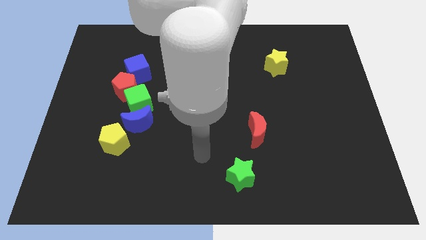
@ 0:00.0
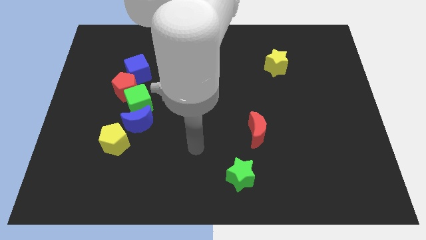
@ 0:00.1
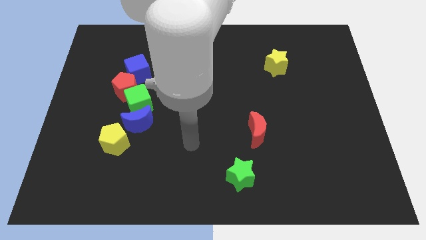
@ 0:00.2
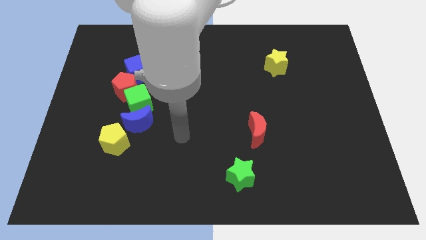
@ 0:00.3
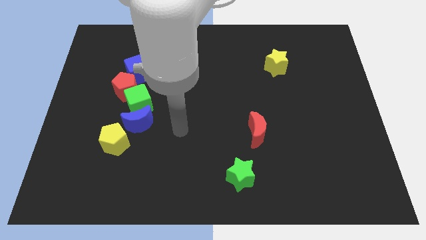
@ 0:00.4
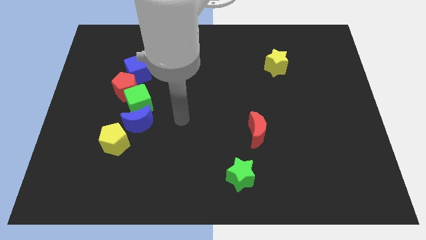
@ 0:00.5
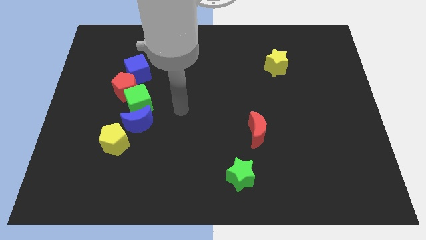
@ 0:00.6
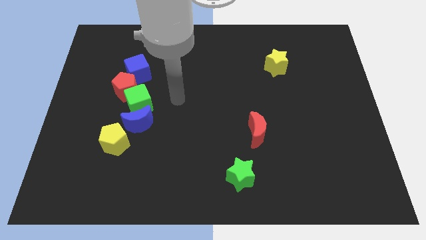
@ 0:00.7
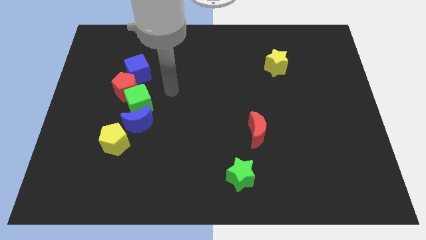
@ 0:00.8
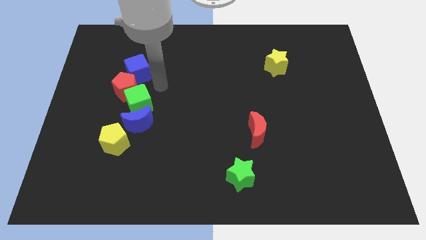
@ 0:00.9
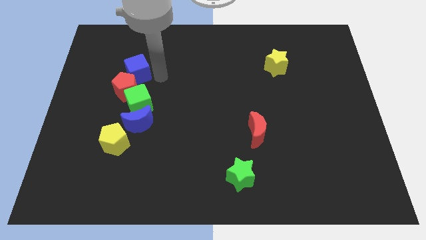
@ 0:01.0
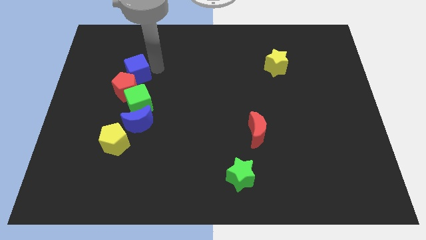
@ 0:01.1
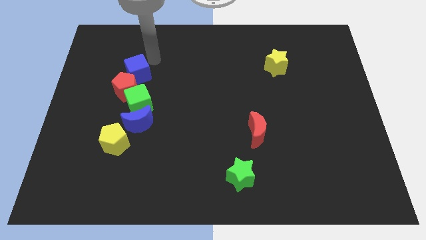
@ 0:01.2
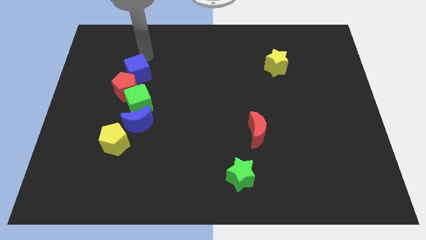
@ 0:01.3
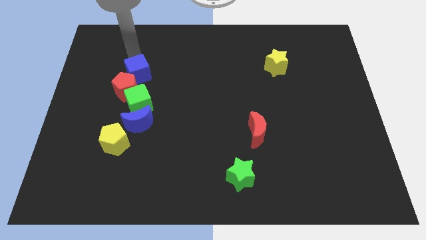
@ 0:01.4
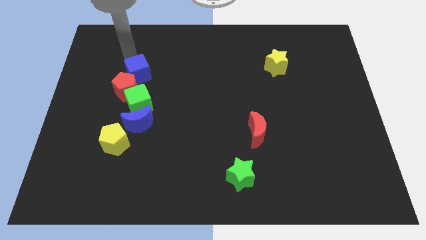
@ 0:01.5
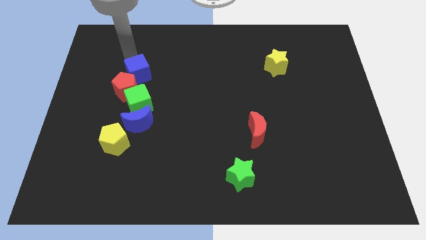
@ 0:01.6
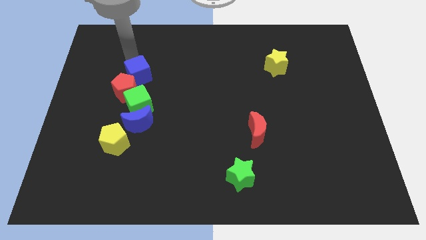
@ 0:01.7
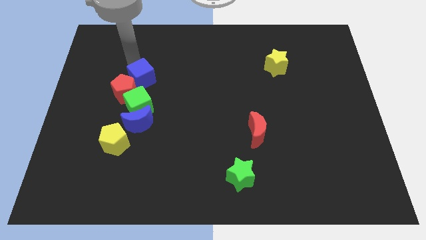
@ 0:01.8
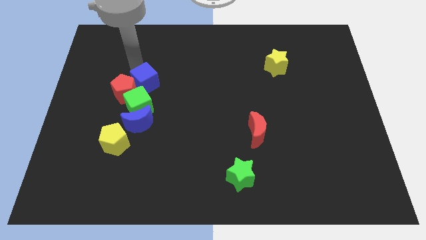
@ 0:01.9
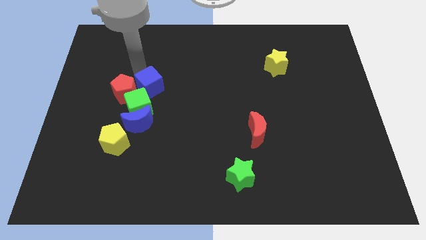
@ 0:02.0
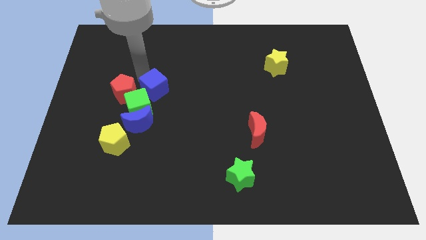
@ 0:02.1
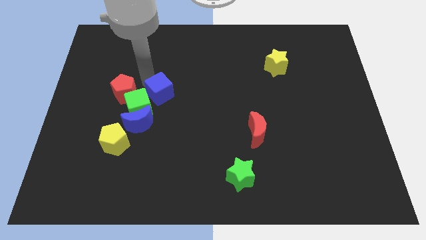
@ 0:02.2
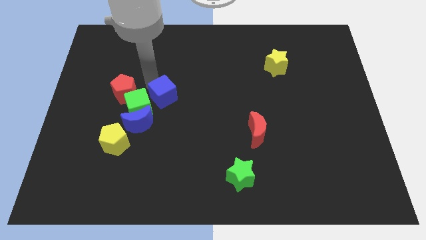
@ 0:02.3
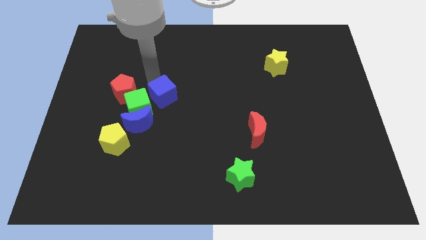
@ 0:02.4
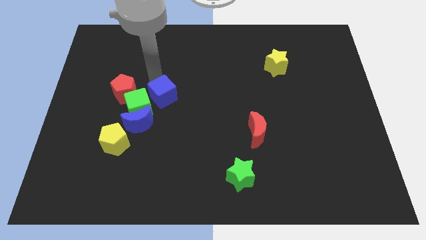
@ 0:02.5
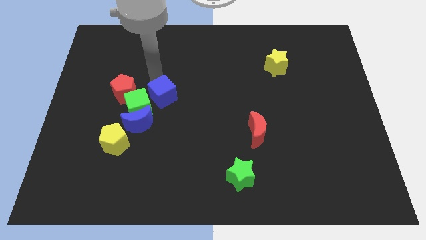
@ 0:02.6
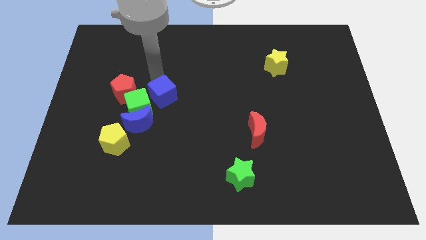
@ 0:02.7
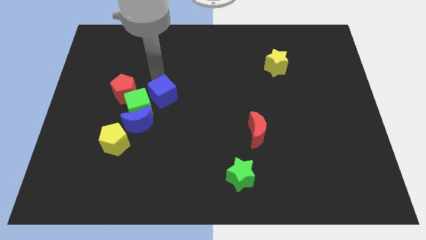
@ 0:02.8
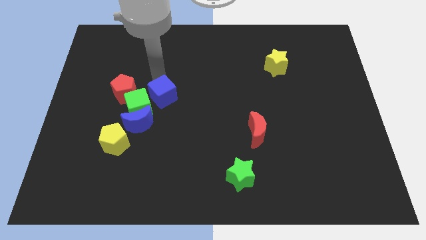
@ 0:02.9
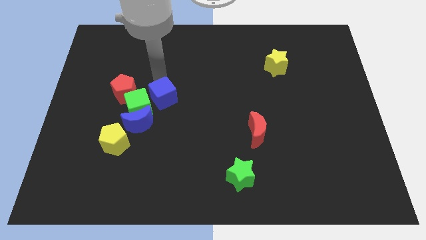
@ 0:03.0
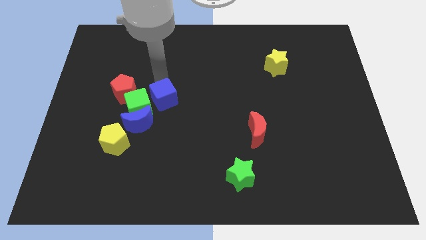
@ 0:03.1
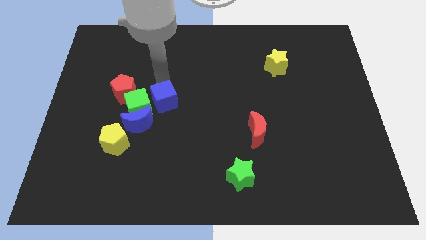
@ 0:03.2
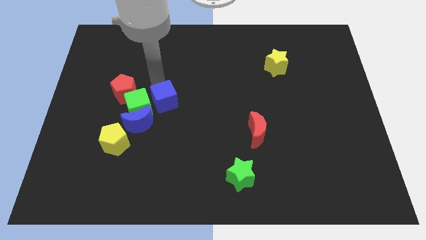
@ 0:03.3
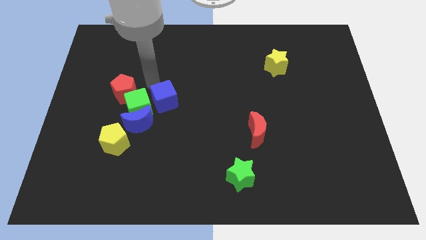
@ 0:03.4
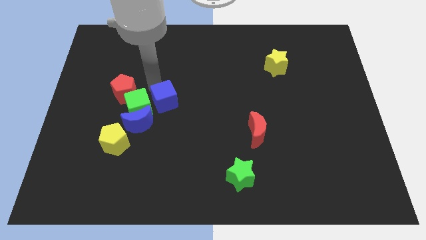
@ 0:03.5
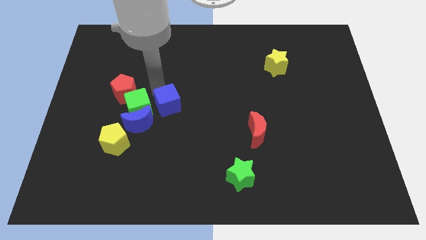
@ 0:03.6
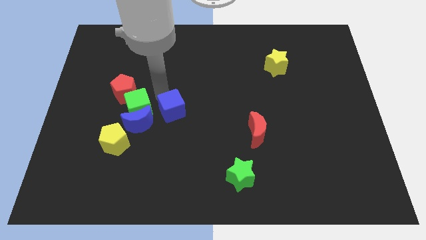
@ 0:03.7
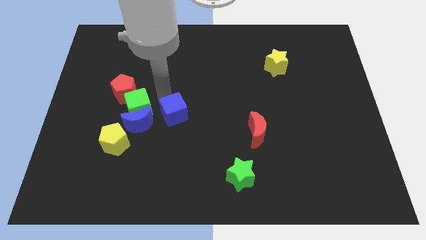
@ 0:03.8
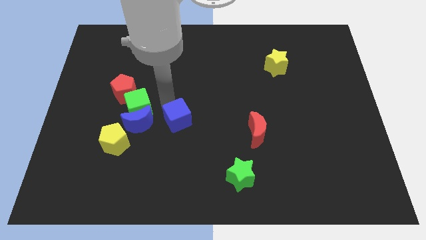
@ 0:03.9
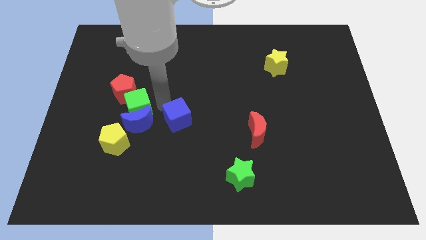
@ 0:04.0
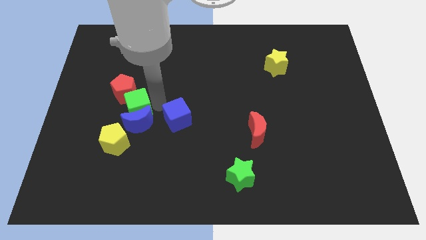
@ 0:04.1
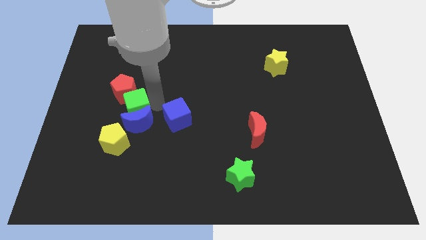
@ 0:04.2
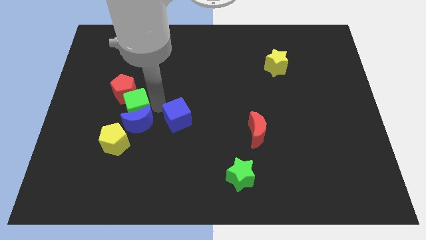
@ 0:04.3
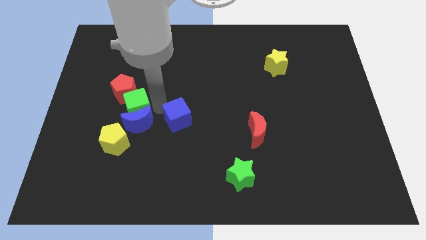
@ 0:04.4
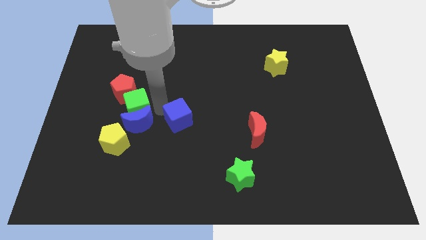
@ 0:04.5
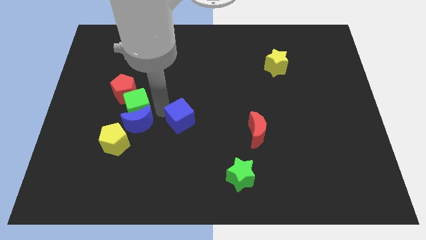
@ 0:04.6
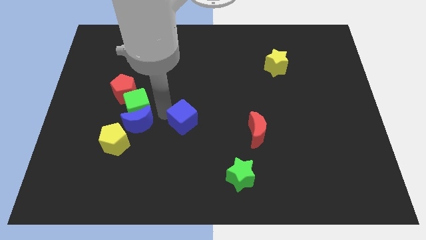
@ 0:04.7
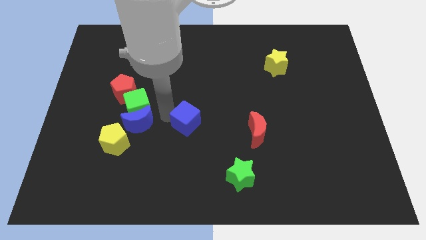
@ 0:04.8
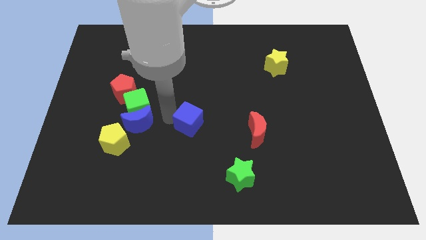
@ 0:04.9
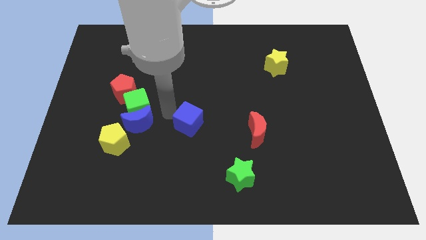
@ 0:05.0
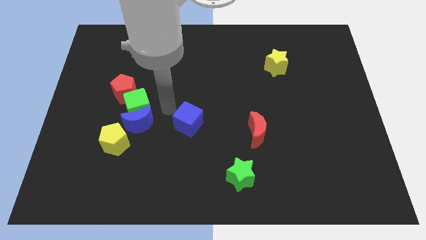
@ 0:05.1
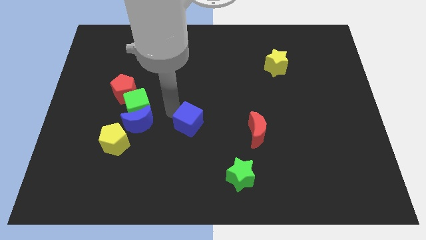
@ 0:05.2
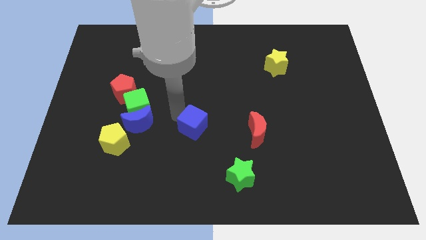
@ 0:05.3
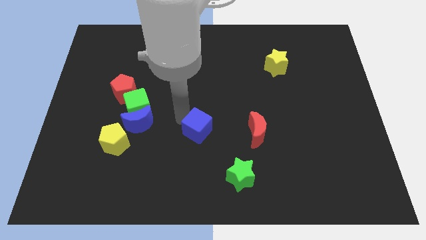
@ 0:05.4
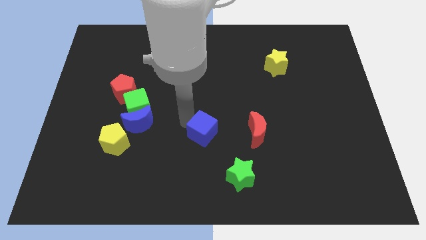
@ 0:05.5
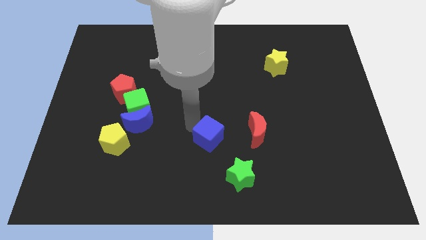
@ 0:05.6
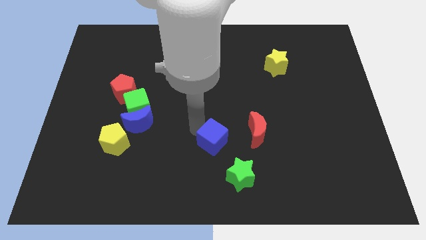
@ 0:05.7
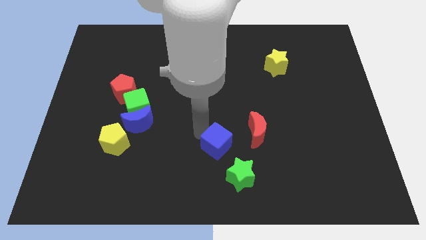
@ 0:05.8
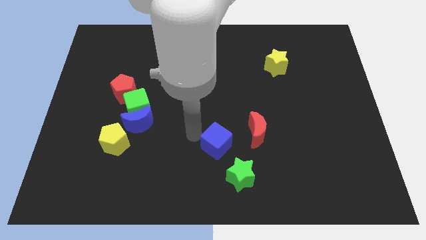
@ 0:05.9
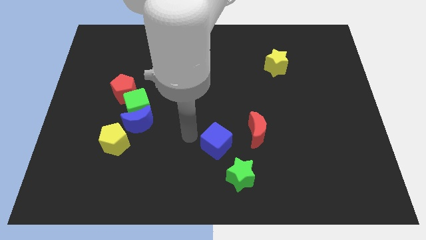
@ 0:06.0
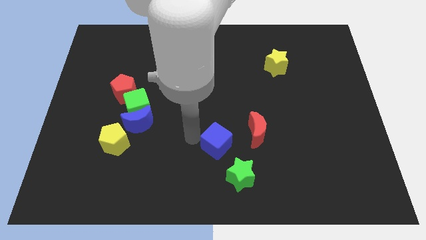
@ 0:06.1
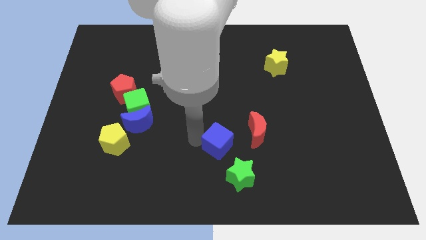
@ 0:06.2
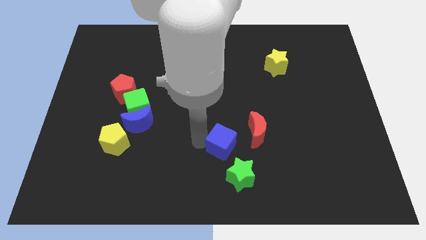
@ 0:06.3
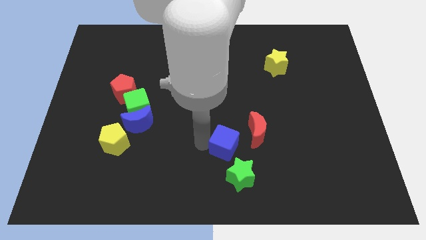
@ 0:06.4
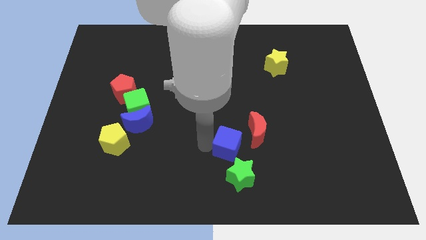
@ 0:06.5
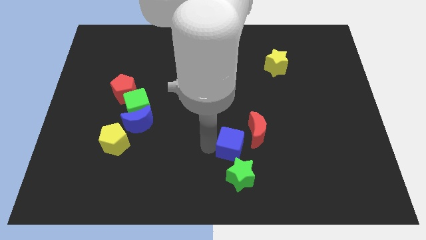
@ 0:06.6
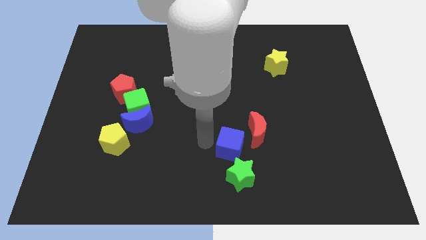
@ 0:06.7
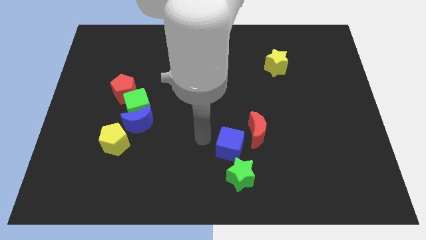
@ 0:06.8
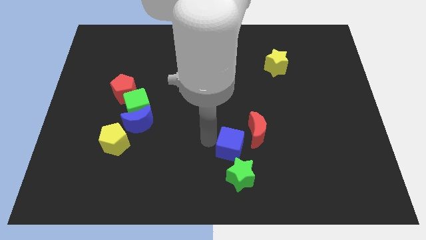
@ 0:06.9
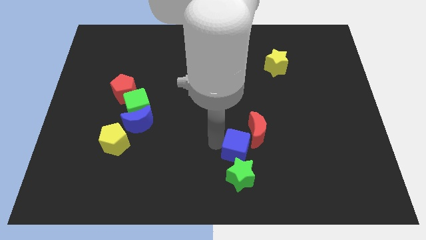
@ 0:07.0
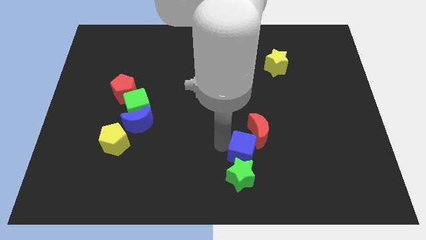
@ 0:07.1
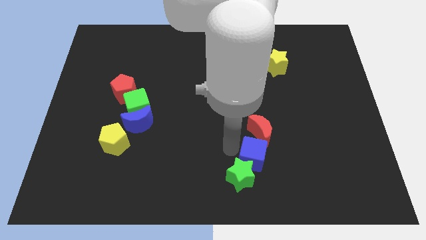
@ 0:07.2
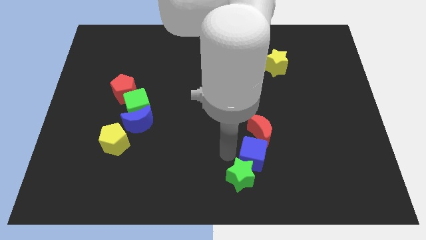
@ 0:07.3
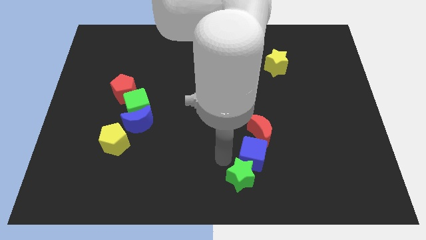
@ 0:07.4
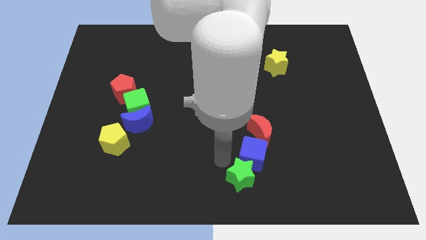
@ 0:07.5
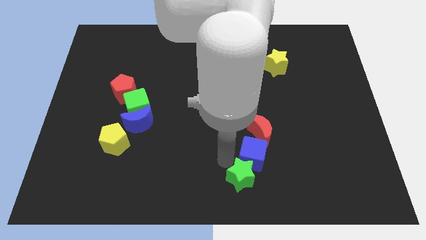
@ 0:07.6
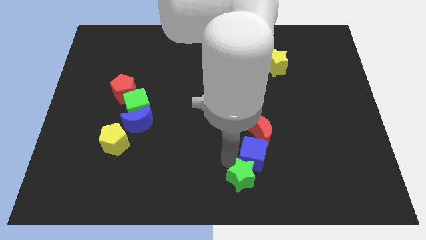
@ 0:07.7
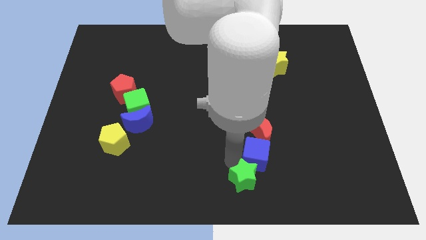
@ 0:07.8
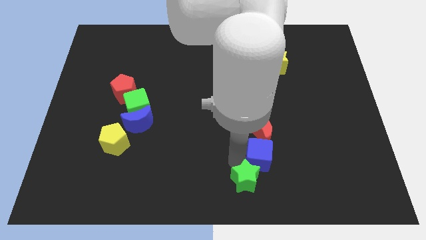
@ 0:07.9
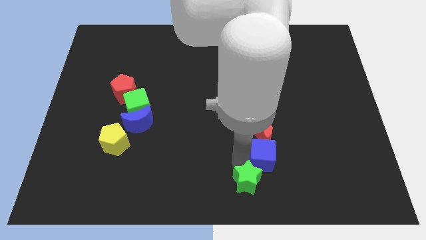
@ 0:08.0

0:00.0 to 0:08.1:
push the blue cube diagonally down and to the right of the red moon

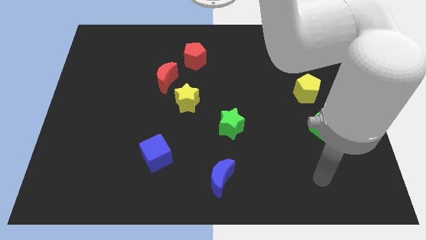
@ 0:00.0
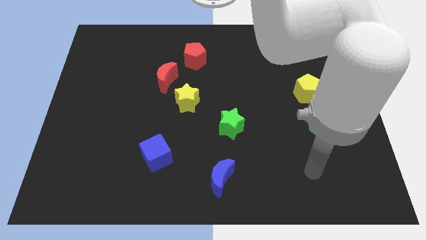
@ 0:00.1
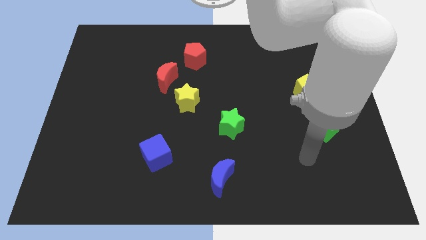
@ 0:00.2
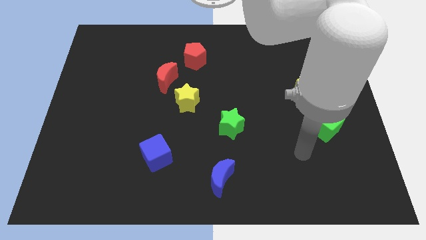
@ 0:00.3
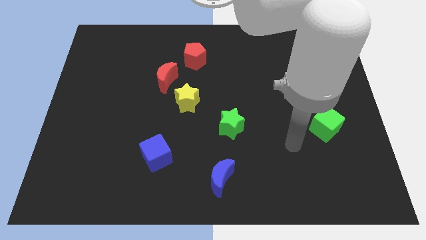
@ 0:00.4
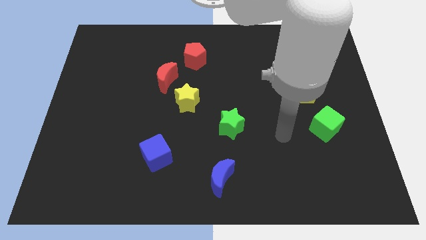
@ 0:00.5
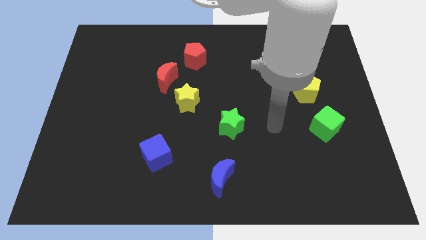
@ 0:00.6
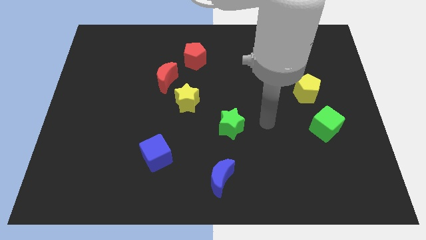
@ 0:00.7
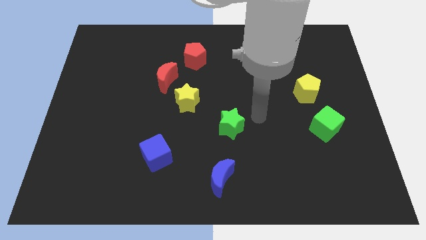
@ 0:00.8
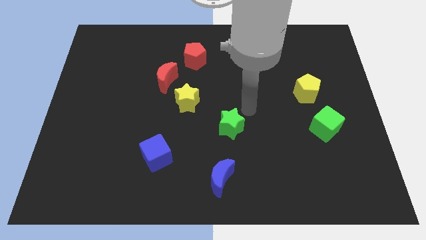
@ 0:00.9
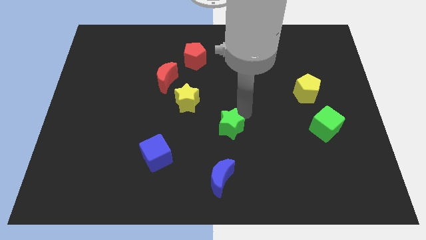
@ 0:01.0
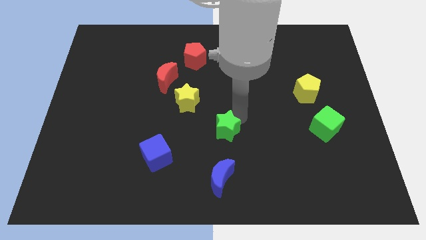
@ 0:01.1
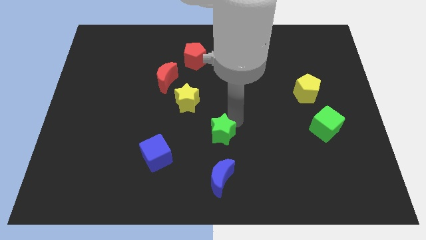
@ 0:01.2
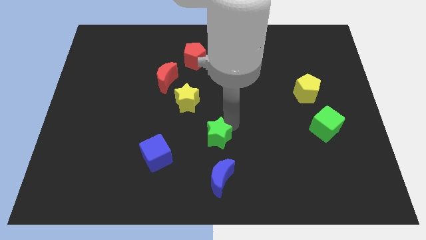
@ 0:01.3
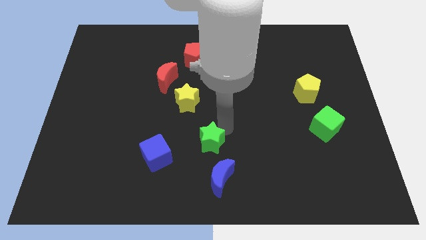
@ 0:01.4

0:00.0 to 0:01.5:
move the green star to the right of the blue cube
